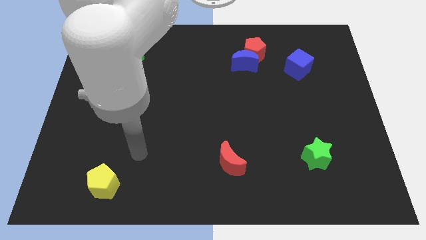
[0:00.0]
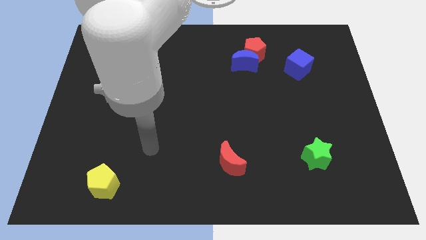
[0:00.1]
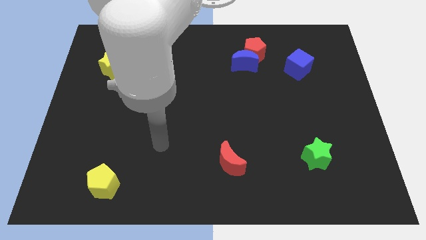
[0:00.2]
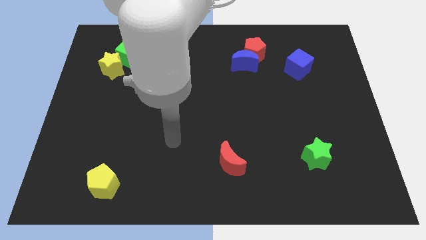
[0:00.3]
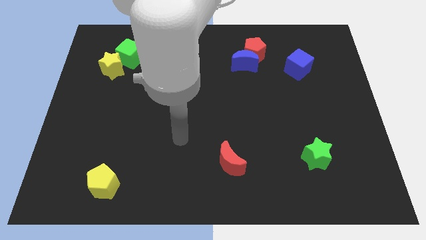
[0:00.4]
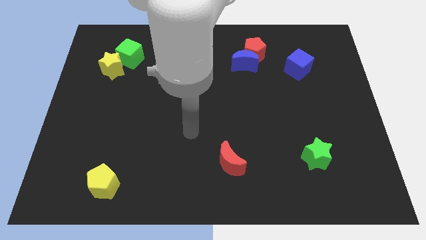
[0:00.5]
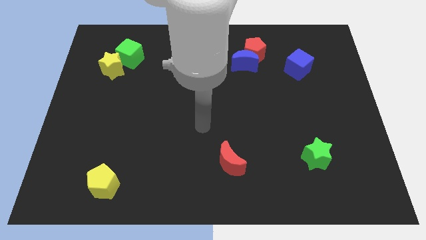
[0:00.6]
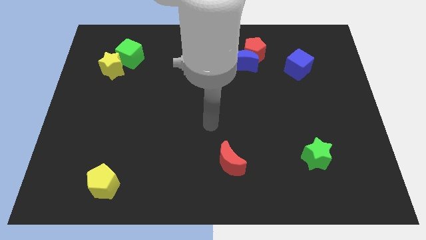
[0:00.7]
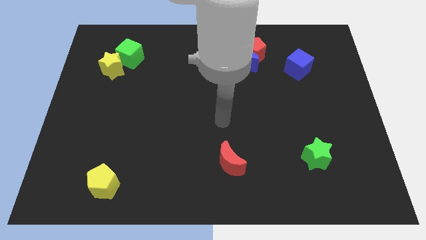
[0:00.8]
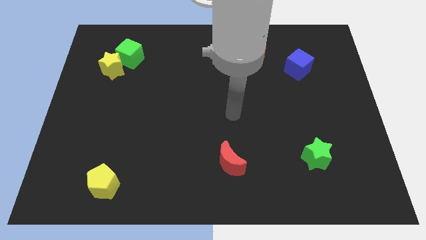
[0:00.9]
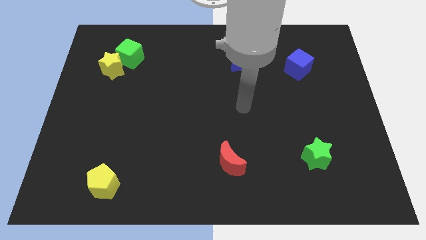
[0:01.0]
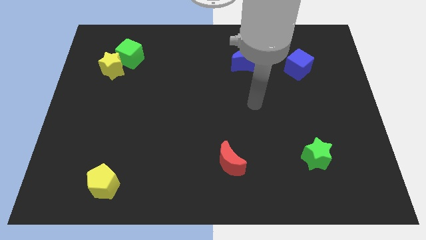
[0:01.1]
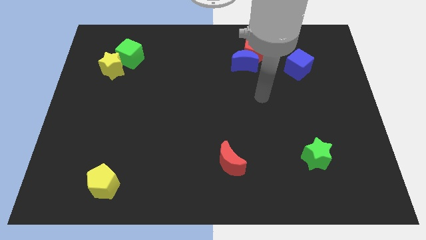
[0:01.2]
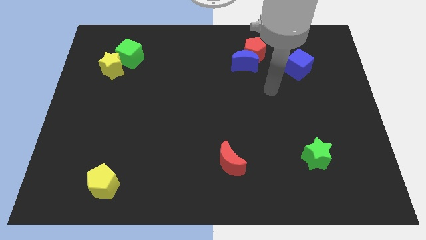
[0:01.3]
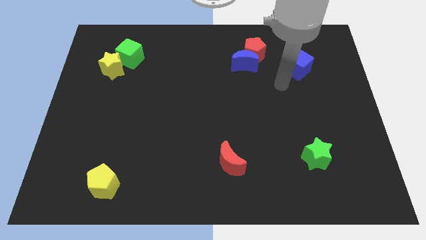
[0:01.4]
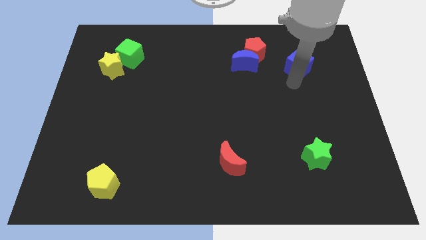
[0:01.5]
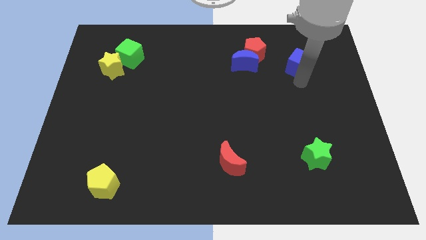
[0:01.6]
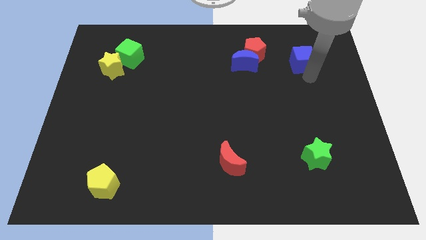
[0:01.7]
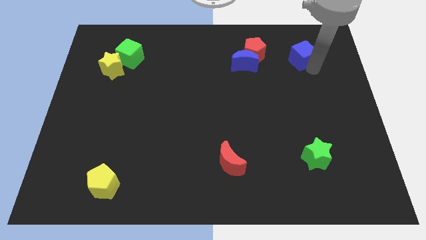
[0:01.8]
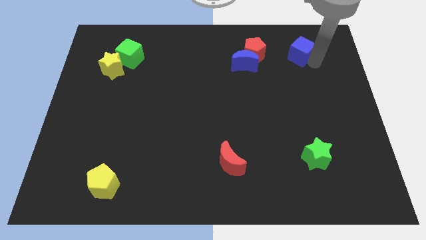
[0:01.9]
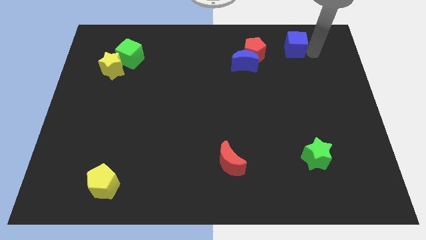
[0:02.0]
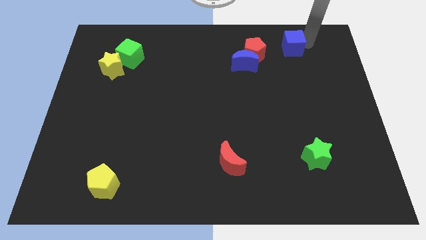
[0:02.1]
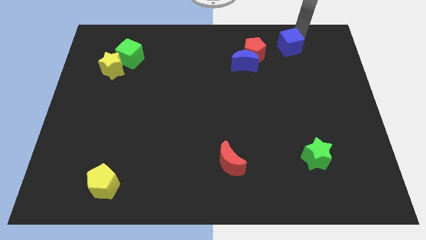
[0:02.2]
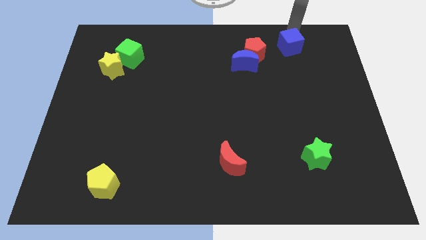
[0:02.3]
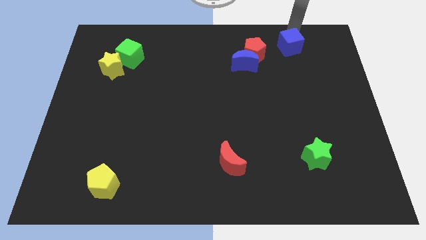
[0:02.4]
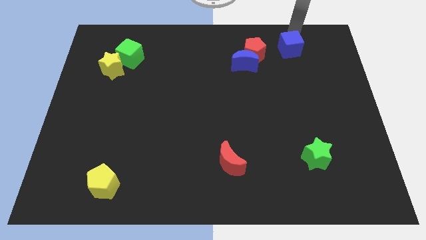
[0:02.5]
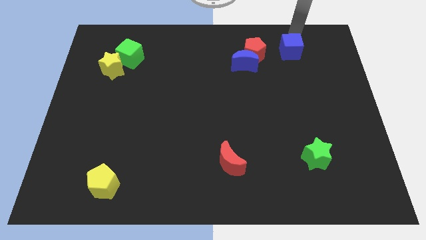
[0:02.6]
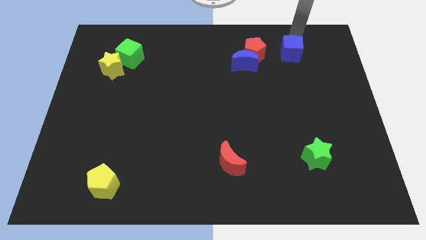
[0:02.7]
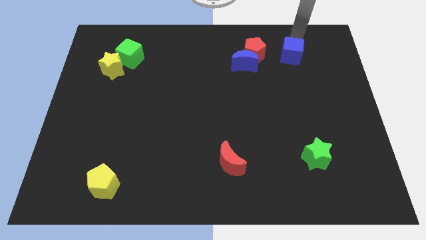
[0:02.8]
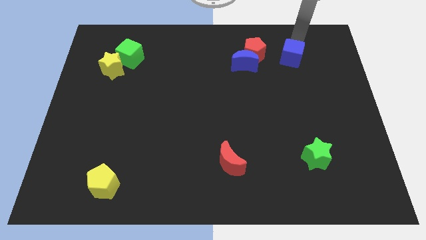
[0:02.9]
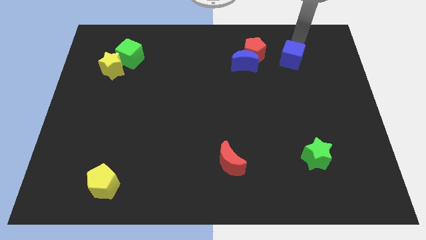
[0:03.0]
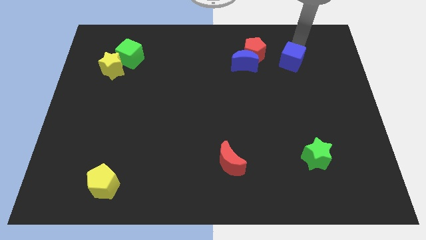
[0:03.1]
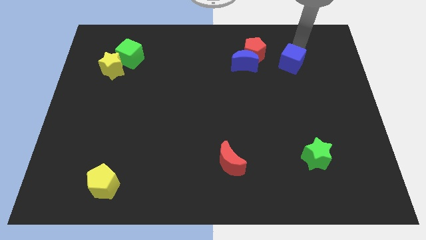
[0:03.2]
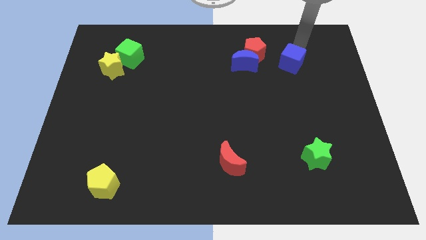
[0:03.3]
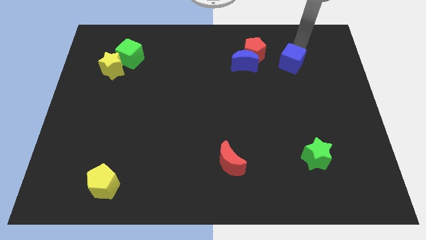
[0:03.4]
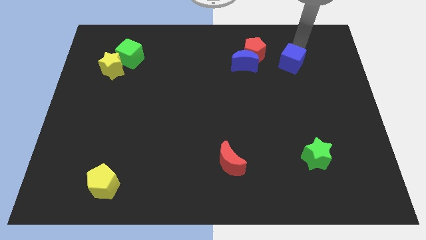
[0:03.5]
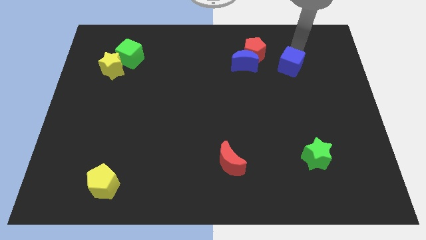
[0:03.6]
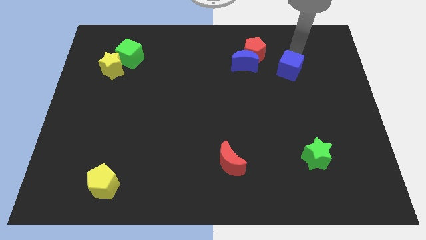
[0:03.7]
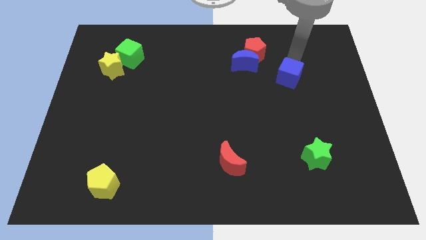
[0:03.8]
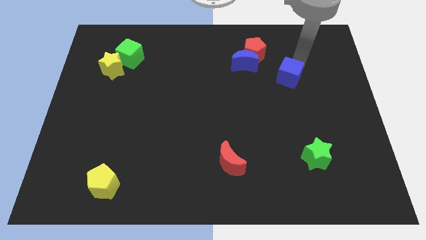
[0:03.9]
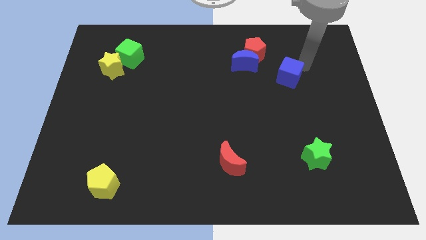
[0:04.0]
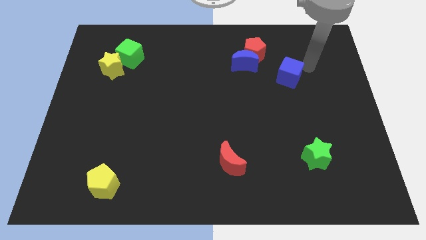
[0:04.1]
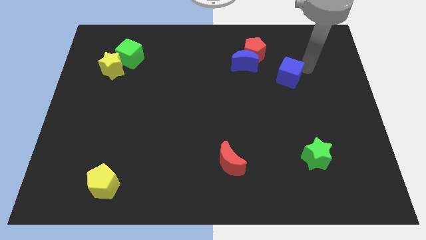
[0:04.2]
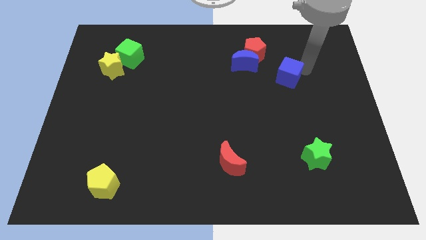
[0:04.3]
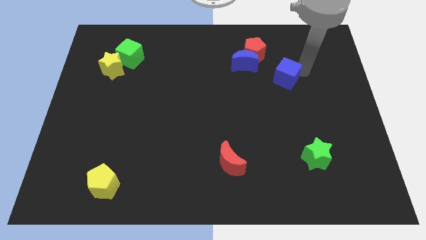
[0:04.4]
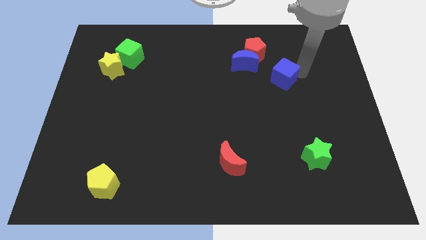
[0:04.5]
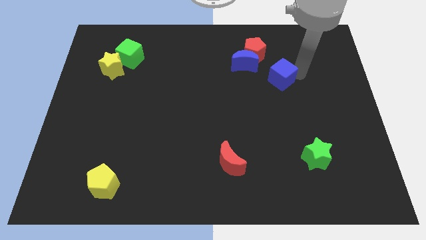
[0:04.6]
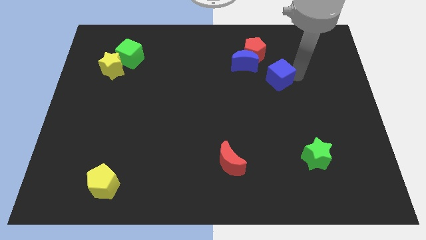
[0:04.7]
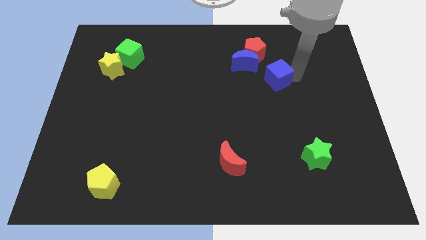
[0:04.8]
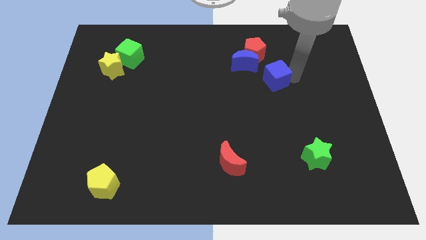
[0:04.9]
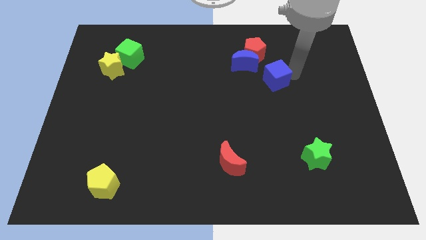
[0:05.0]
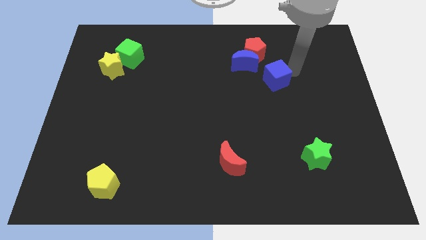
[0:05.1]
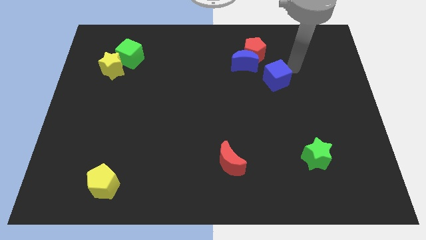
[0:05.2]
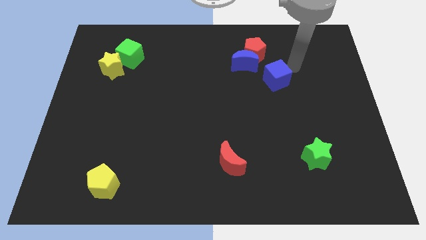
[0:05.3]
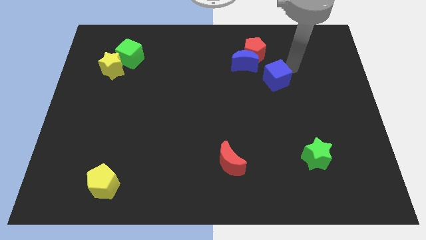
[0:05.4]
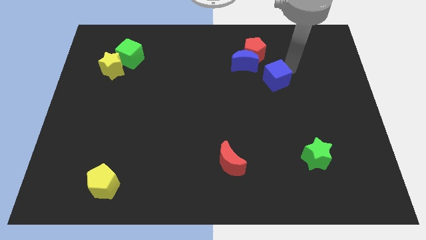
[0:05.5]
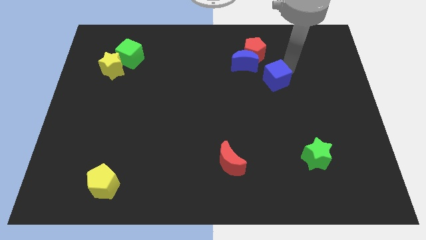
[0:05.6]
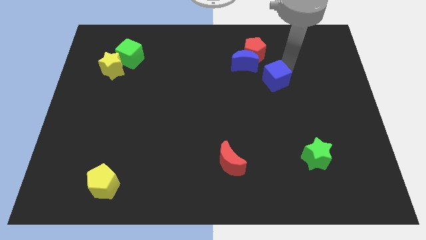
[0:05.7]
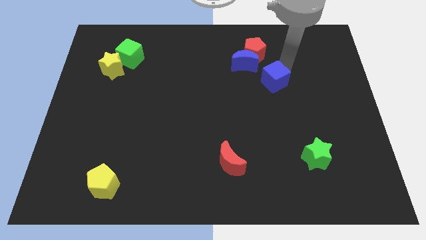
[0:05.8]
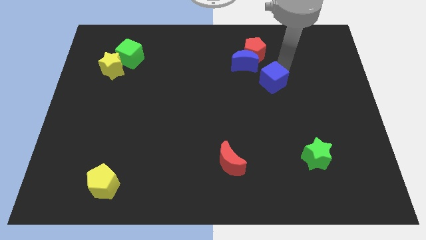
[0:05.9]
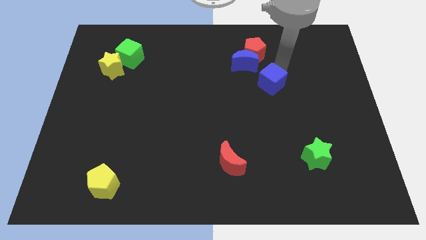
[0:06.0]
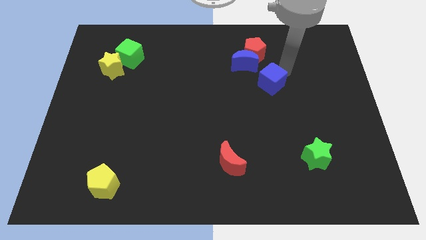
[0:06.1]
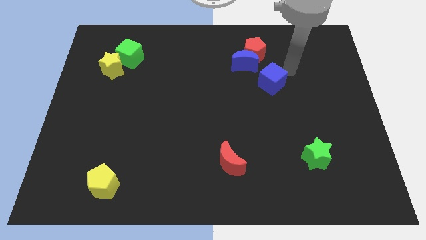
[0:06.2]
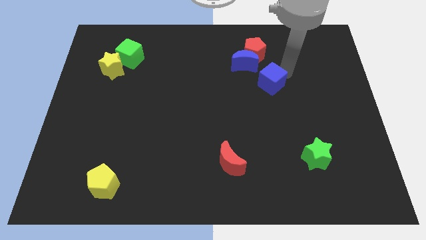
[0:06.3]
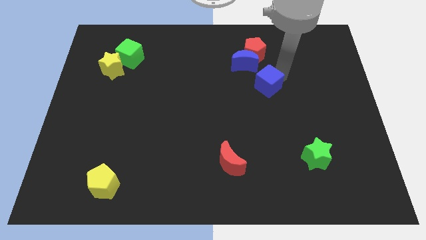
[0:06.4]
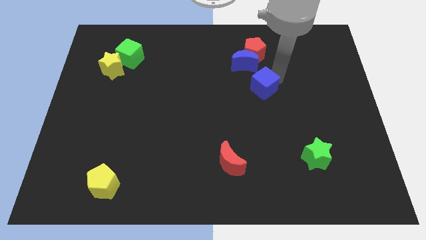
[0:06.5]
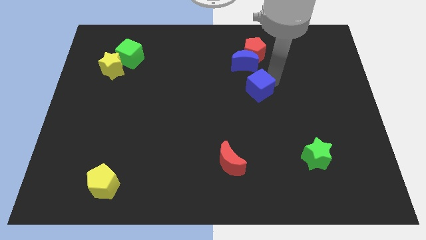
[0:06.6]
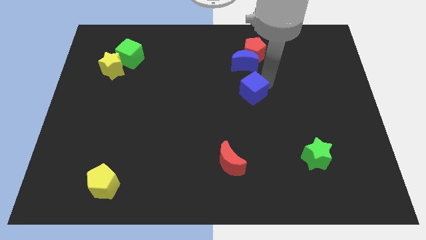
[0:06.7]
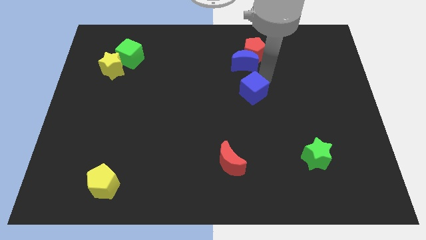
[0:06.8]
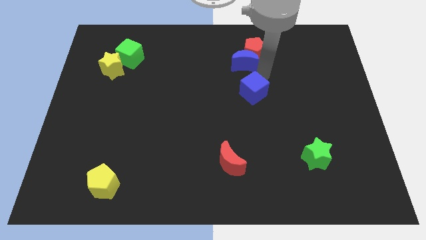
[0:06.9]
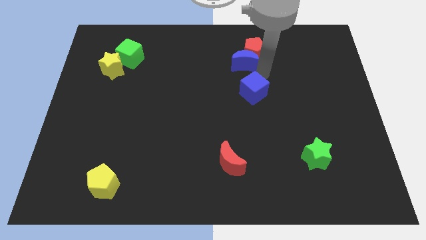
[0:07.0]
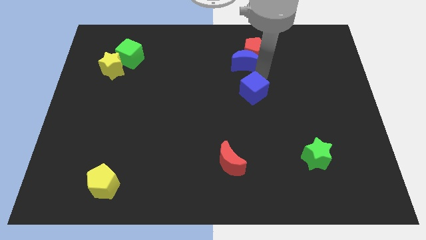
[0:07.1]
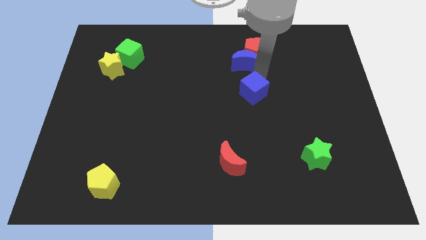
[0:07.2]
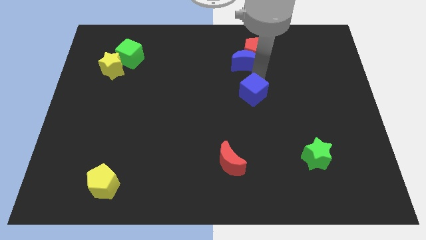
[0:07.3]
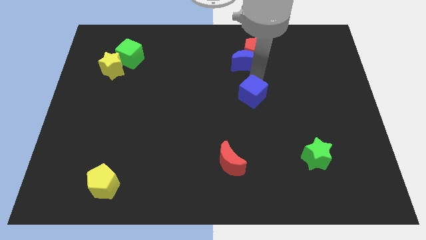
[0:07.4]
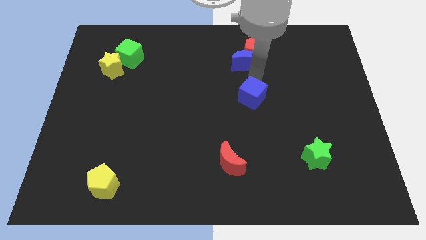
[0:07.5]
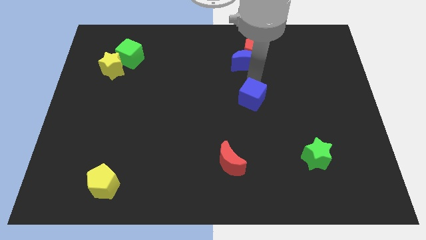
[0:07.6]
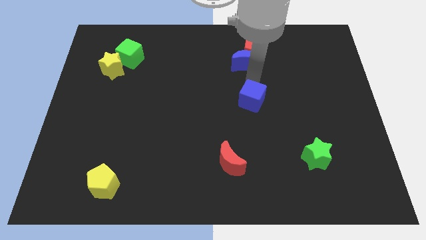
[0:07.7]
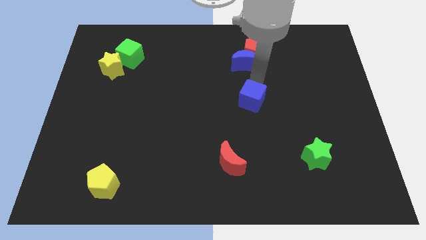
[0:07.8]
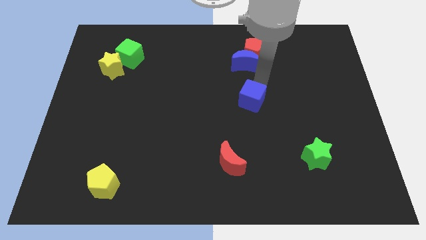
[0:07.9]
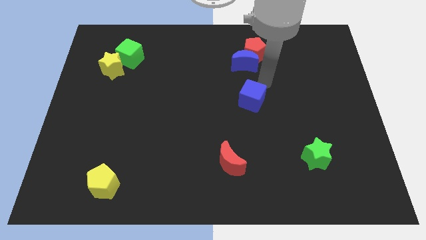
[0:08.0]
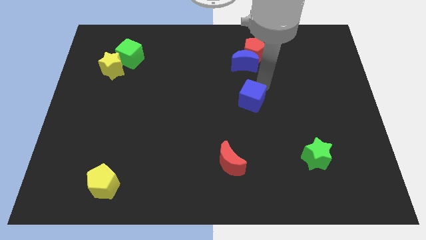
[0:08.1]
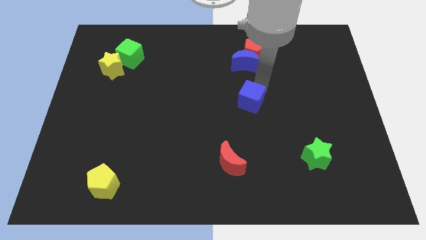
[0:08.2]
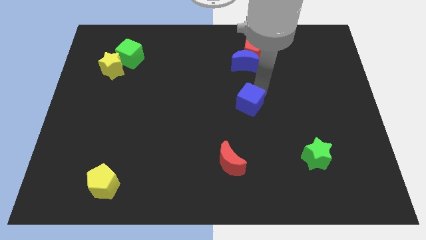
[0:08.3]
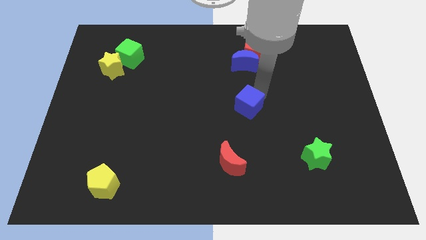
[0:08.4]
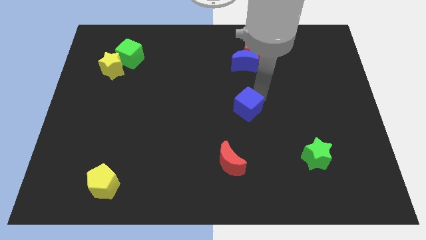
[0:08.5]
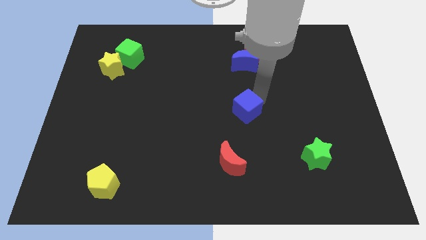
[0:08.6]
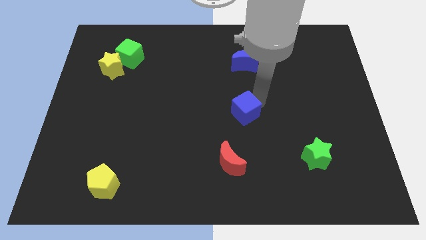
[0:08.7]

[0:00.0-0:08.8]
move the blue cube to the top side of the red moon
